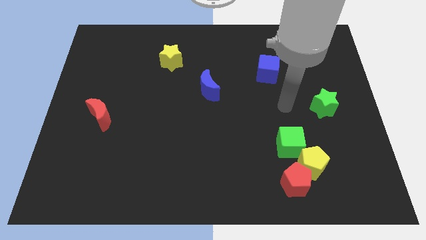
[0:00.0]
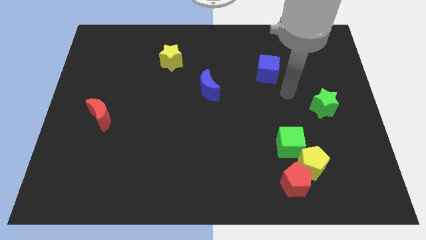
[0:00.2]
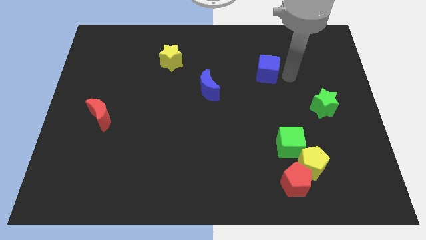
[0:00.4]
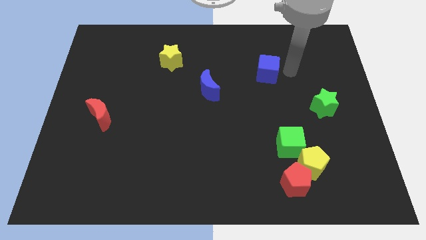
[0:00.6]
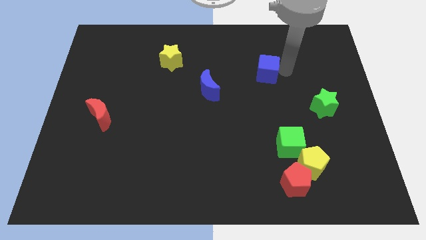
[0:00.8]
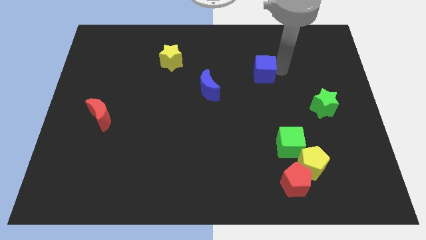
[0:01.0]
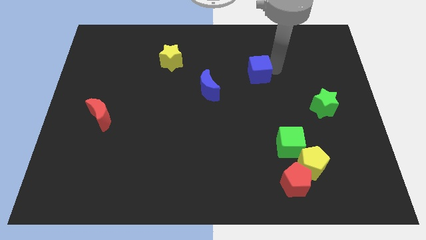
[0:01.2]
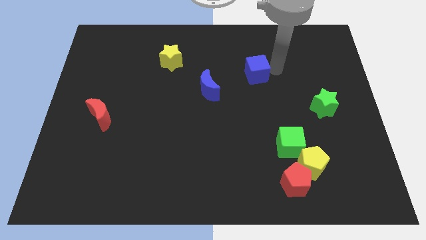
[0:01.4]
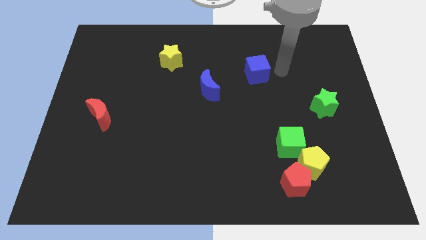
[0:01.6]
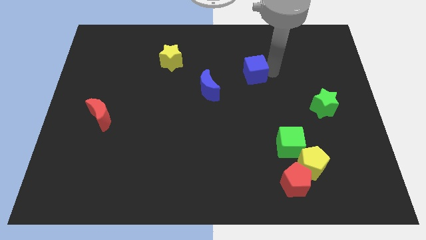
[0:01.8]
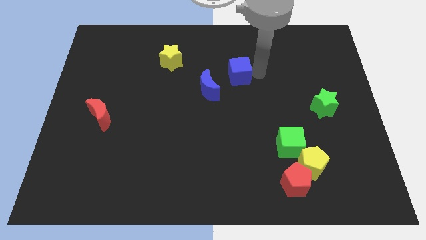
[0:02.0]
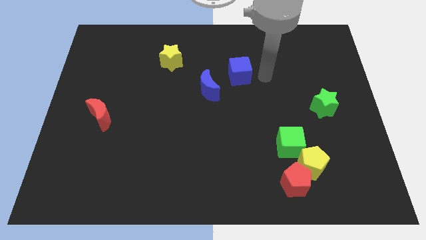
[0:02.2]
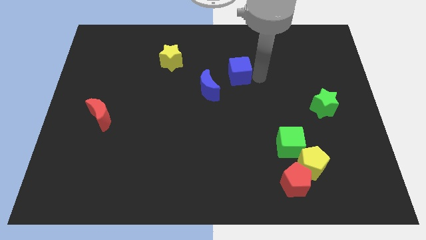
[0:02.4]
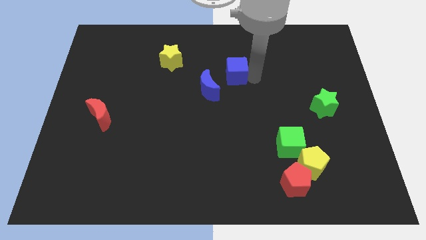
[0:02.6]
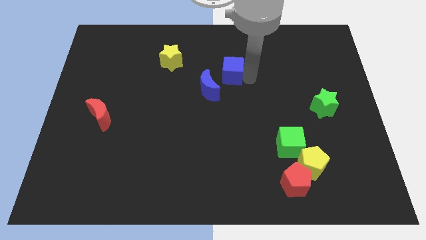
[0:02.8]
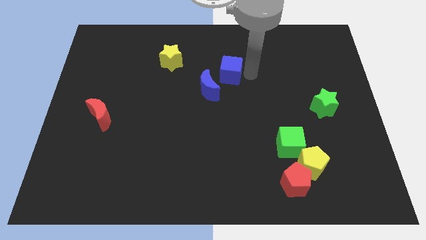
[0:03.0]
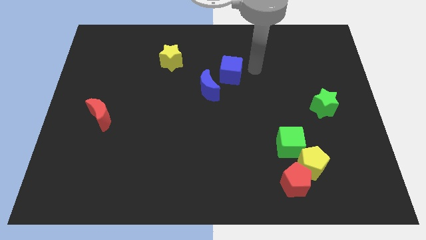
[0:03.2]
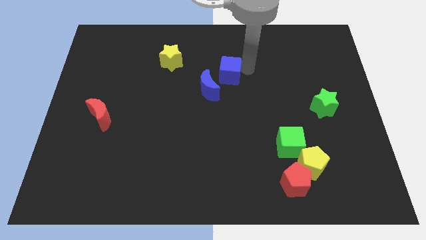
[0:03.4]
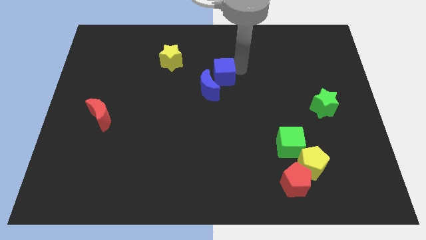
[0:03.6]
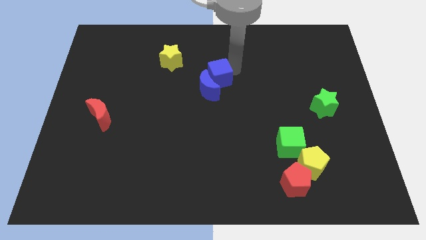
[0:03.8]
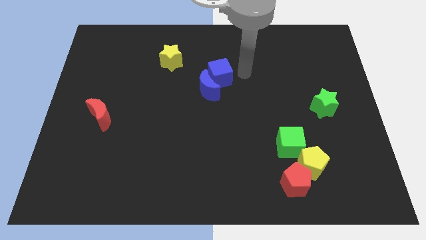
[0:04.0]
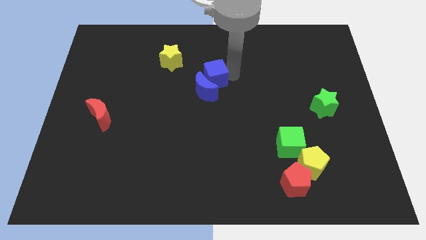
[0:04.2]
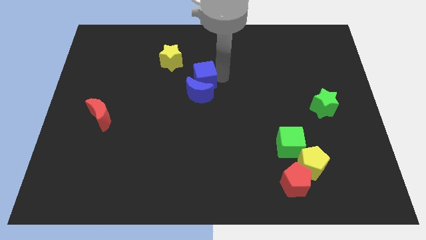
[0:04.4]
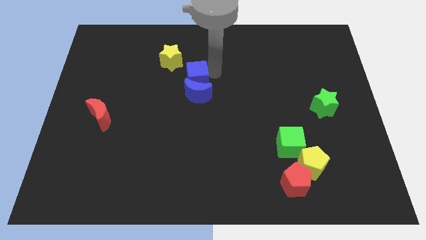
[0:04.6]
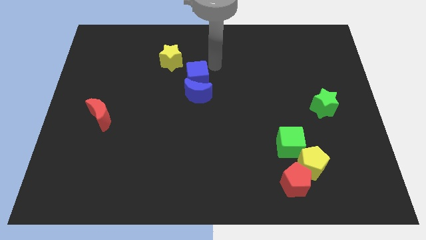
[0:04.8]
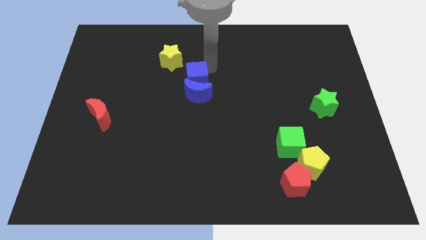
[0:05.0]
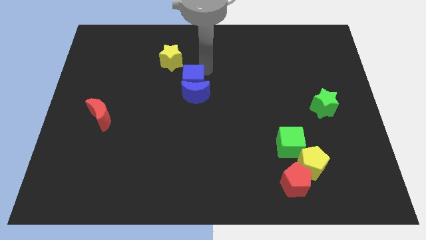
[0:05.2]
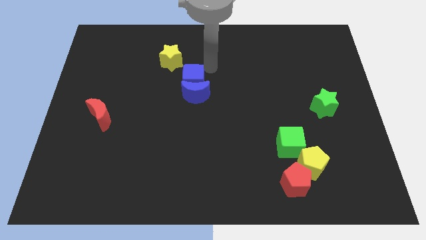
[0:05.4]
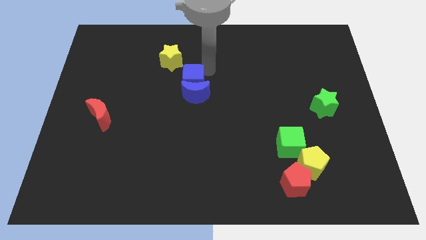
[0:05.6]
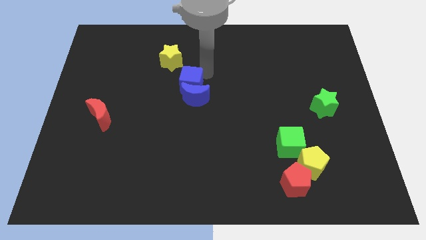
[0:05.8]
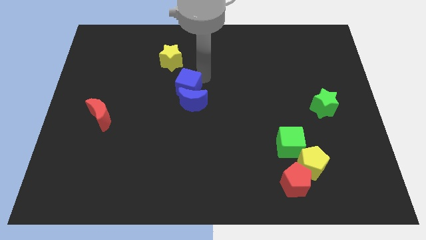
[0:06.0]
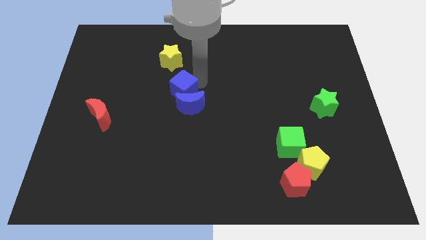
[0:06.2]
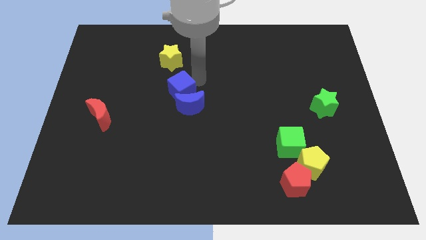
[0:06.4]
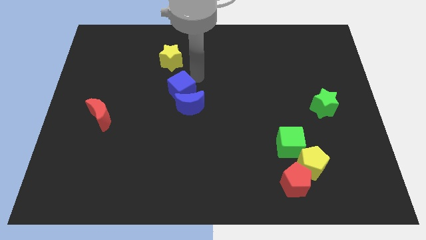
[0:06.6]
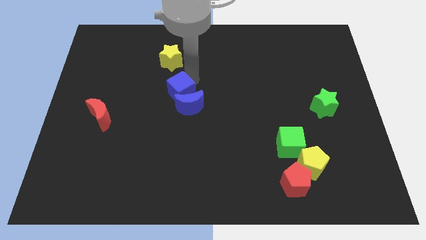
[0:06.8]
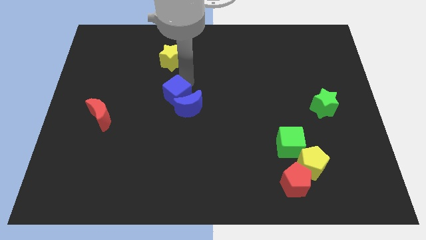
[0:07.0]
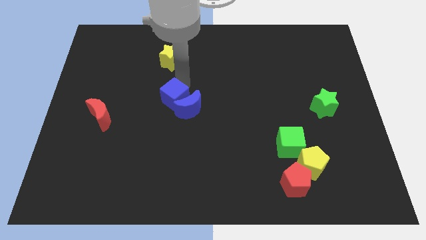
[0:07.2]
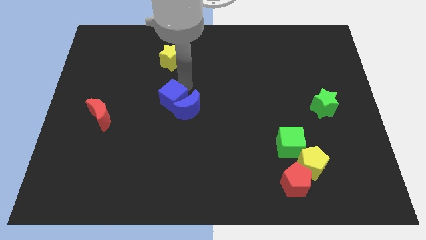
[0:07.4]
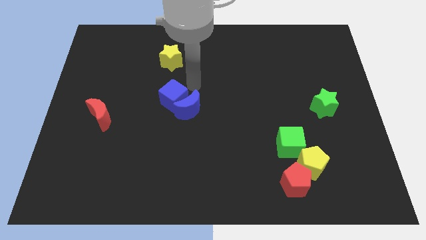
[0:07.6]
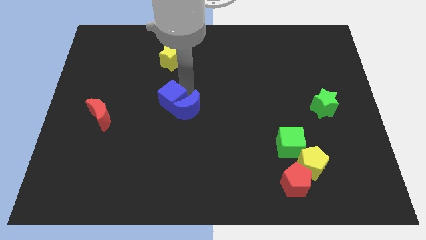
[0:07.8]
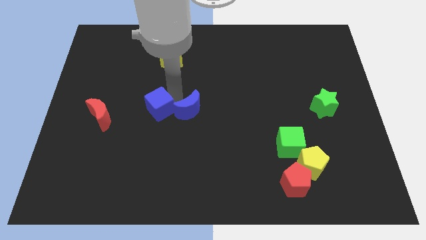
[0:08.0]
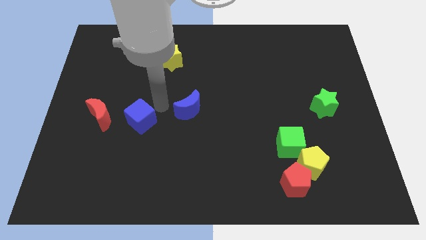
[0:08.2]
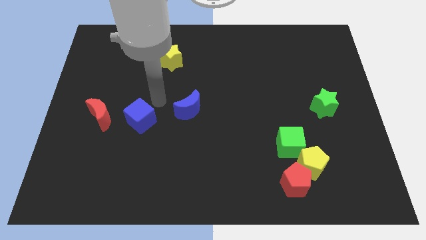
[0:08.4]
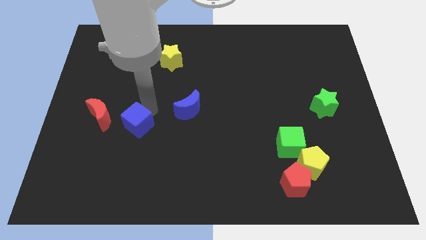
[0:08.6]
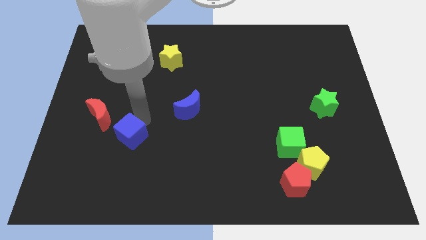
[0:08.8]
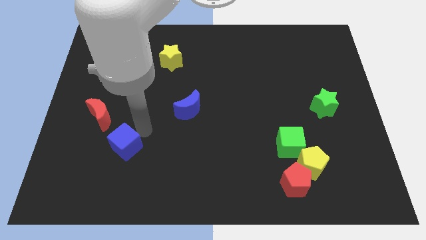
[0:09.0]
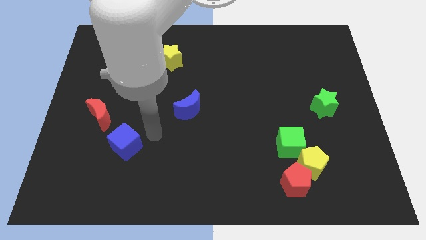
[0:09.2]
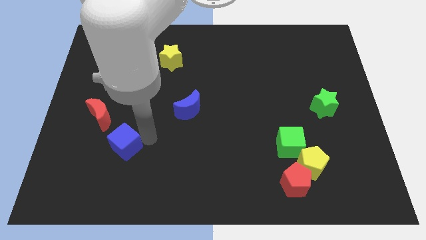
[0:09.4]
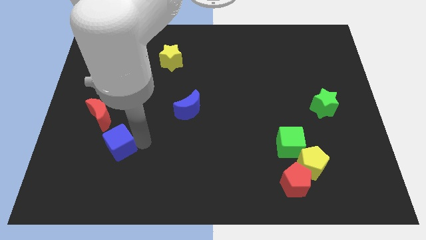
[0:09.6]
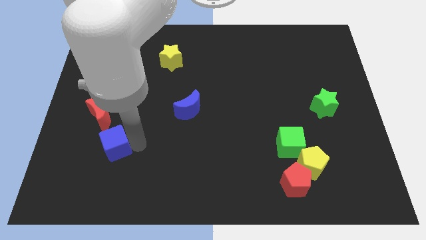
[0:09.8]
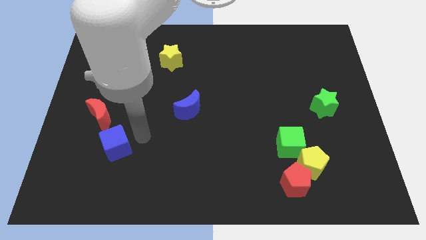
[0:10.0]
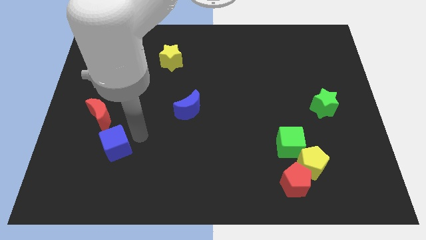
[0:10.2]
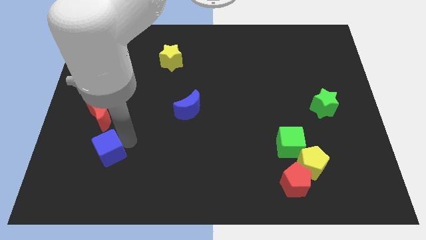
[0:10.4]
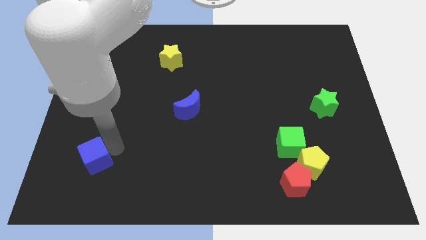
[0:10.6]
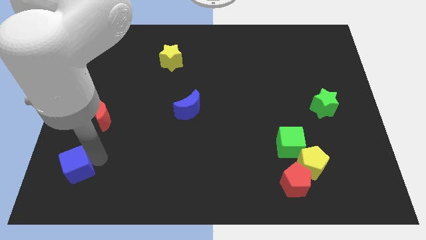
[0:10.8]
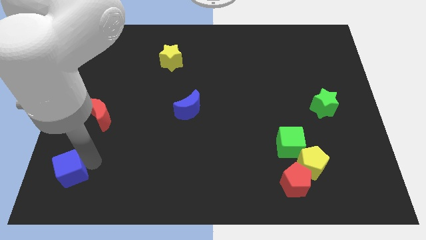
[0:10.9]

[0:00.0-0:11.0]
move the blue cube to the bottom left

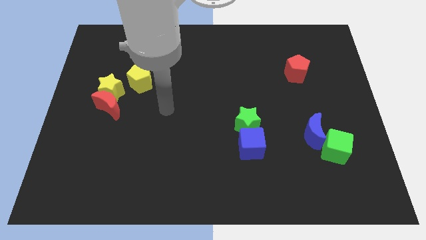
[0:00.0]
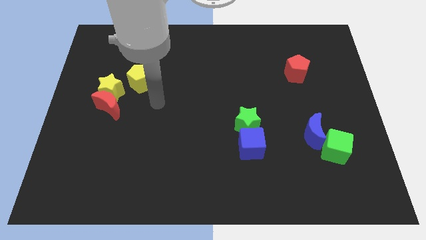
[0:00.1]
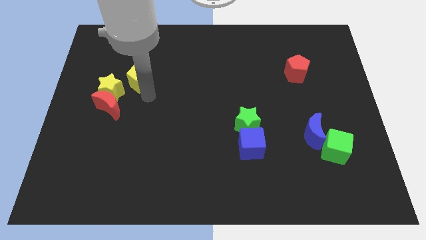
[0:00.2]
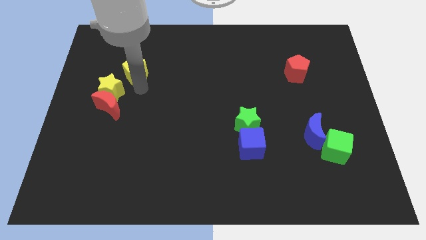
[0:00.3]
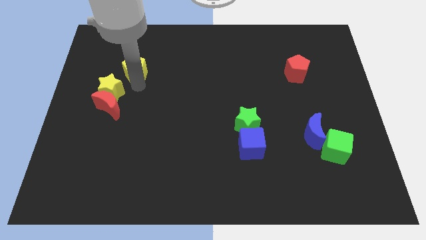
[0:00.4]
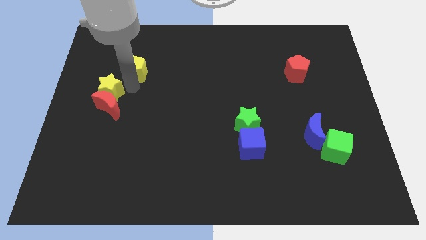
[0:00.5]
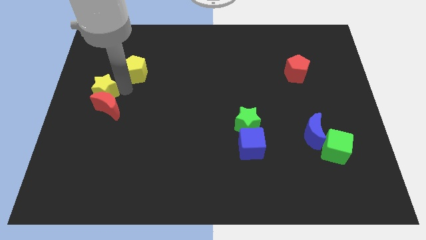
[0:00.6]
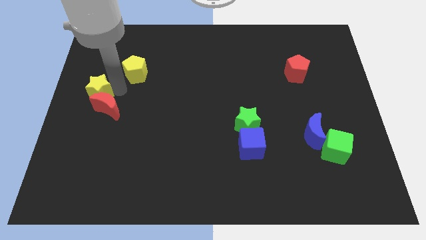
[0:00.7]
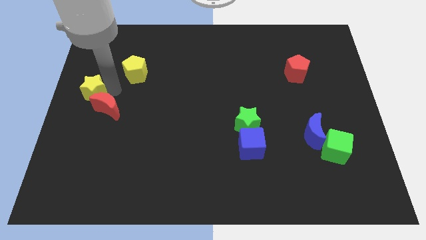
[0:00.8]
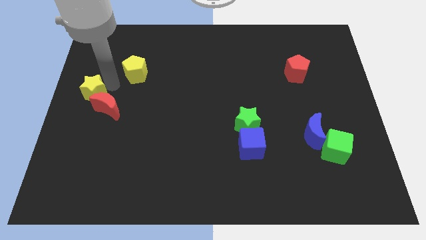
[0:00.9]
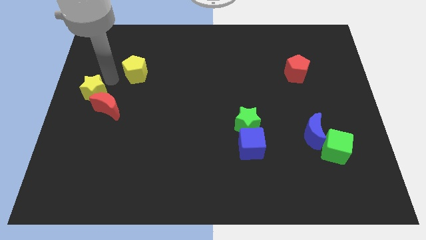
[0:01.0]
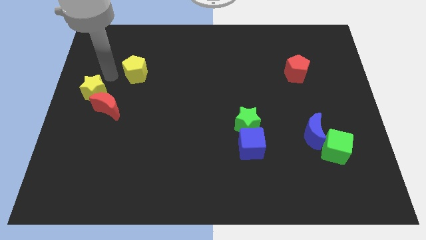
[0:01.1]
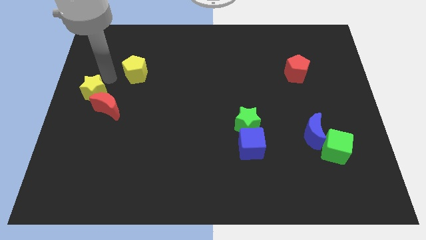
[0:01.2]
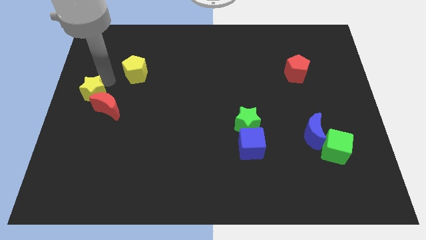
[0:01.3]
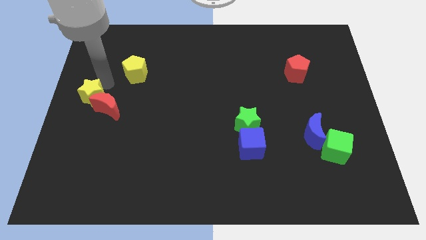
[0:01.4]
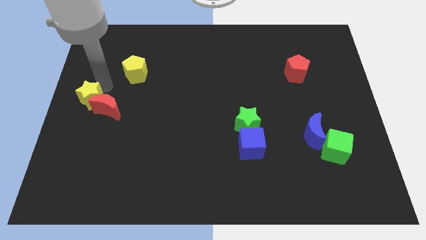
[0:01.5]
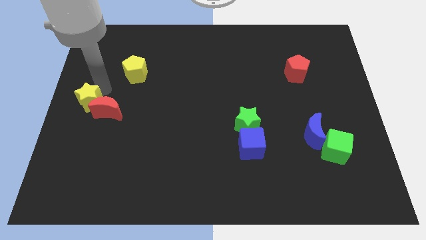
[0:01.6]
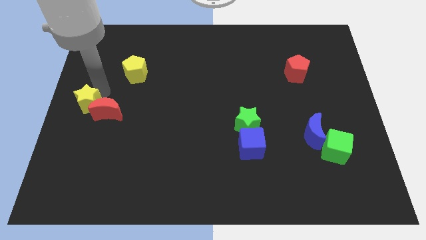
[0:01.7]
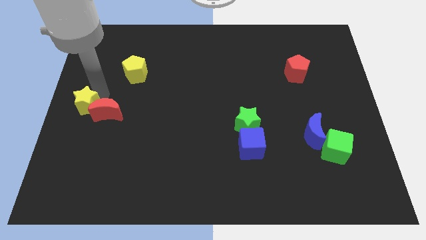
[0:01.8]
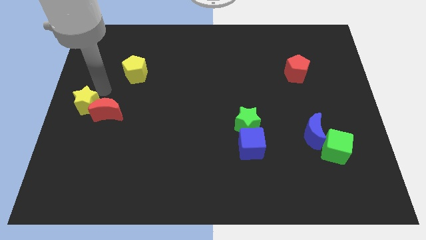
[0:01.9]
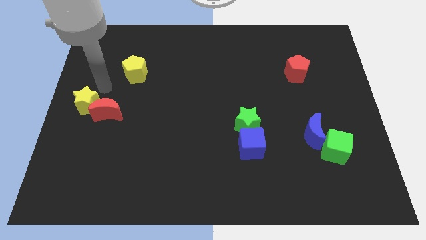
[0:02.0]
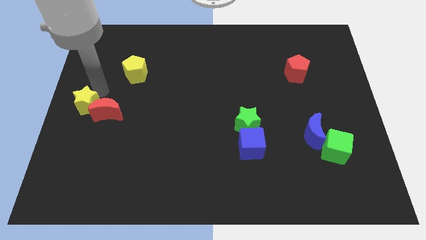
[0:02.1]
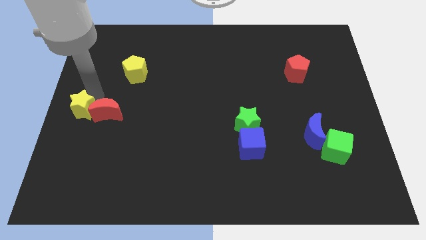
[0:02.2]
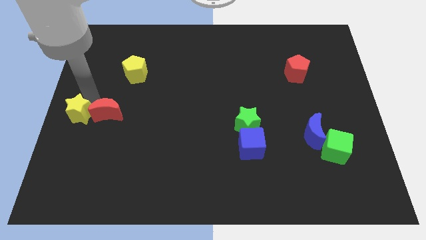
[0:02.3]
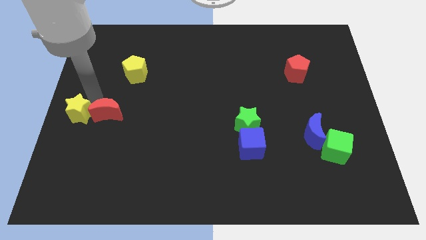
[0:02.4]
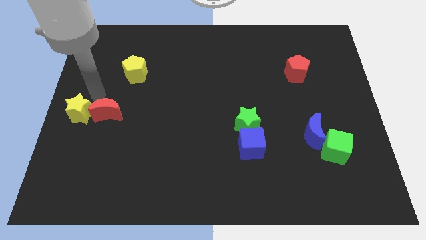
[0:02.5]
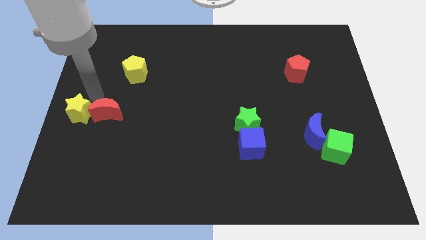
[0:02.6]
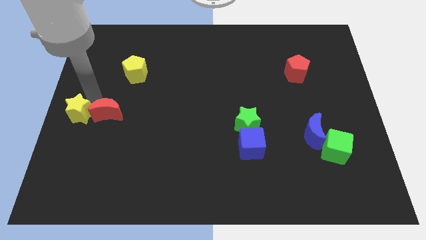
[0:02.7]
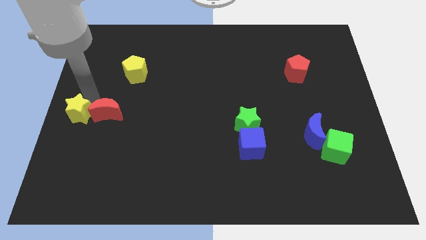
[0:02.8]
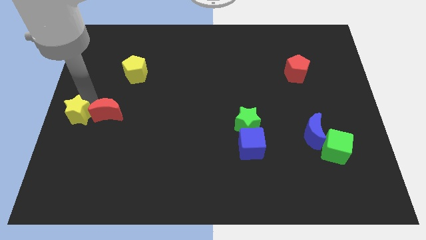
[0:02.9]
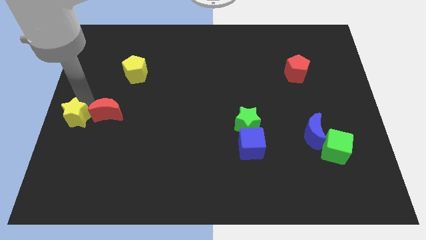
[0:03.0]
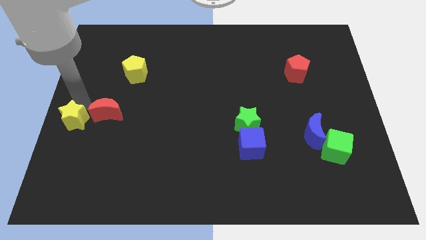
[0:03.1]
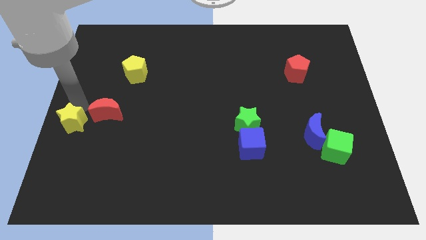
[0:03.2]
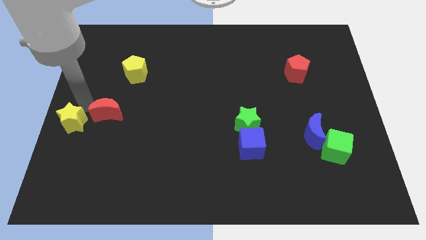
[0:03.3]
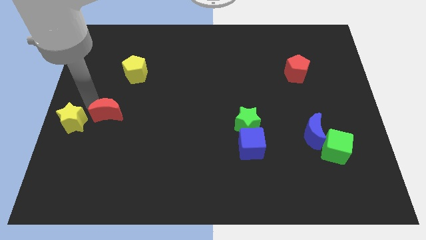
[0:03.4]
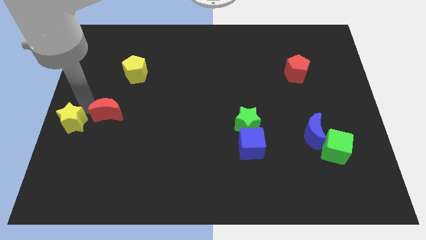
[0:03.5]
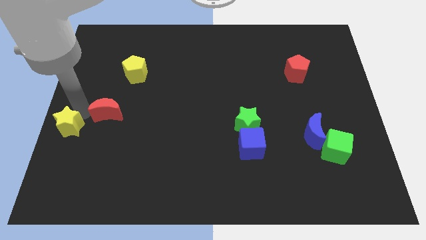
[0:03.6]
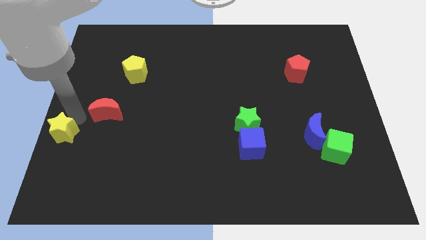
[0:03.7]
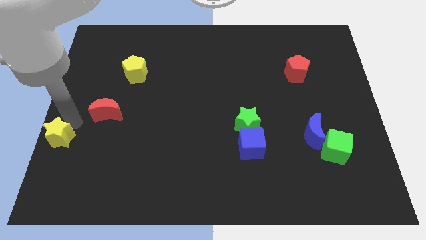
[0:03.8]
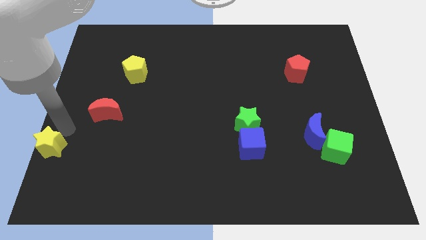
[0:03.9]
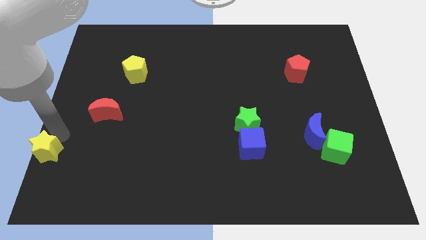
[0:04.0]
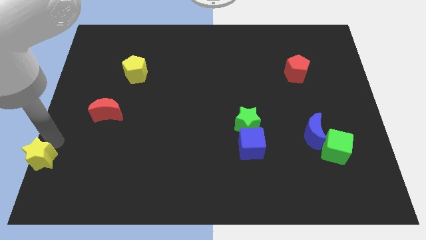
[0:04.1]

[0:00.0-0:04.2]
push the yellow star to the lower left corner
